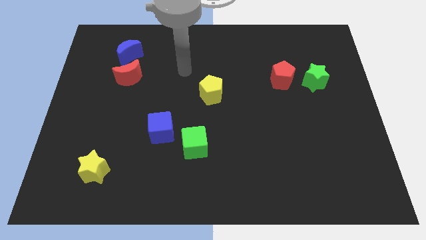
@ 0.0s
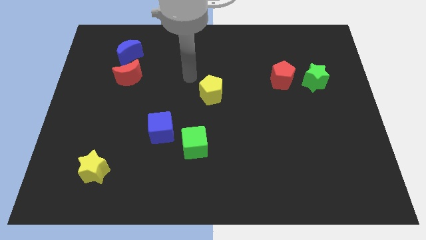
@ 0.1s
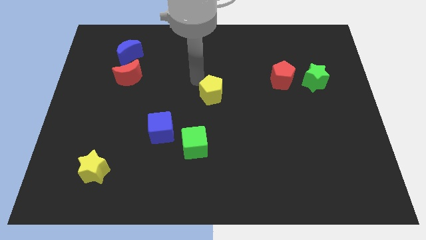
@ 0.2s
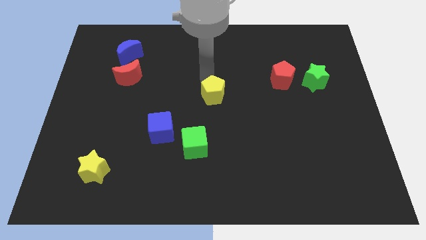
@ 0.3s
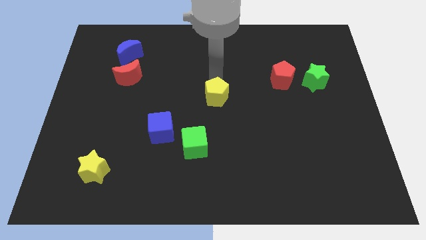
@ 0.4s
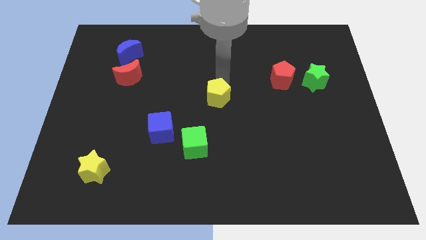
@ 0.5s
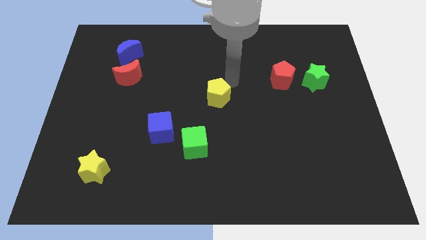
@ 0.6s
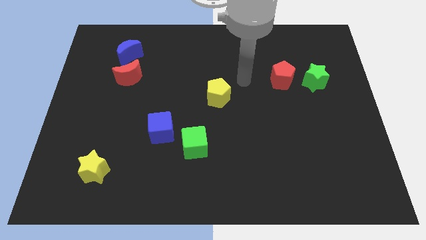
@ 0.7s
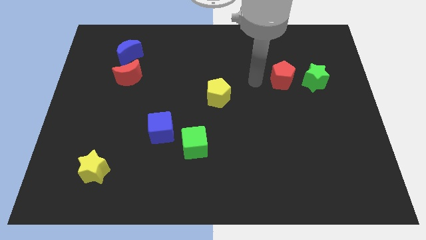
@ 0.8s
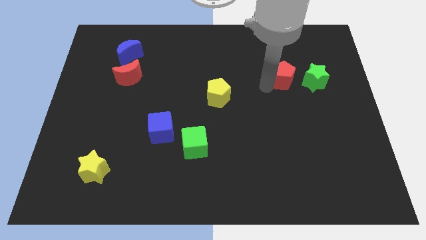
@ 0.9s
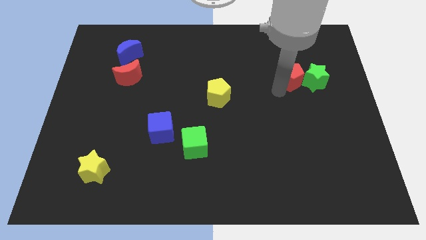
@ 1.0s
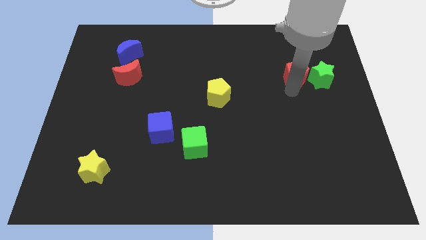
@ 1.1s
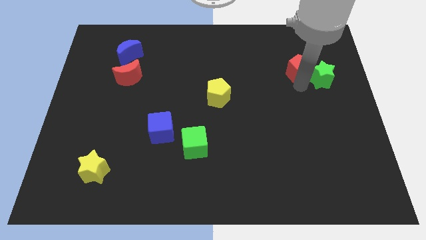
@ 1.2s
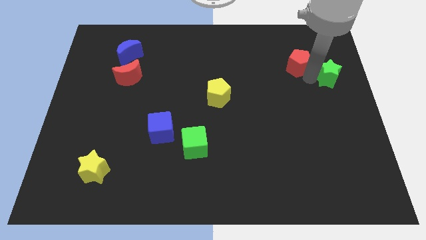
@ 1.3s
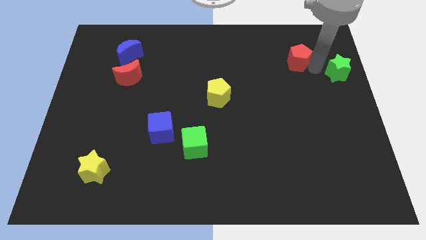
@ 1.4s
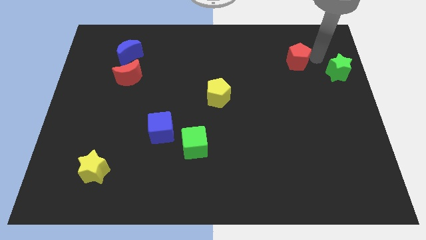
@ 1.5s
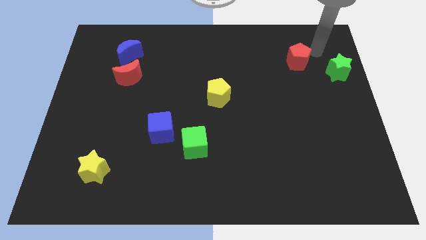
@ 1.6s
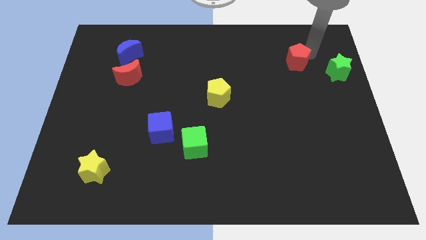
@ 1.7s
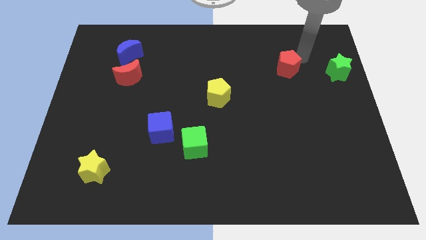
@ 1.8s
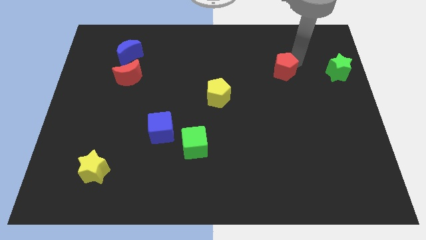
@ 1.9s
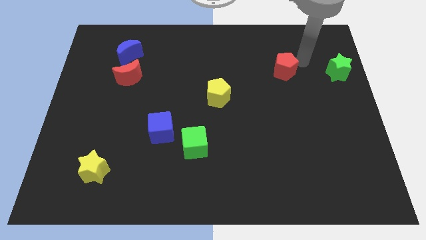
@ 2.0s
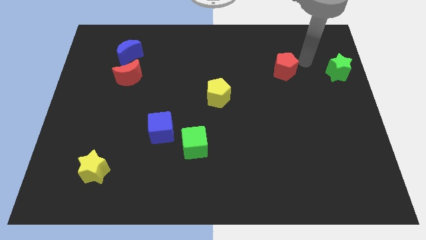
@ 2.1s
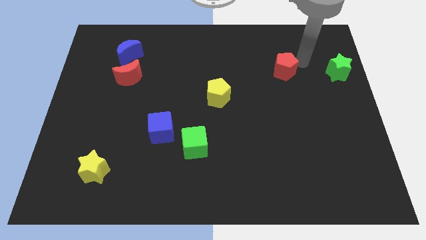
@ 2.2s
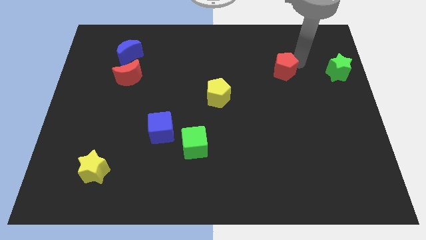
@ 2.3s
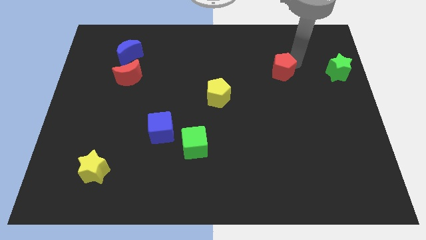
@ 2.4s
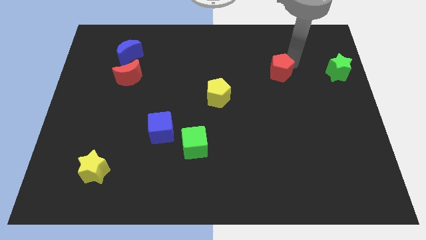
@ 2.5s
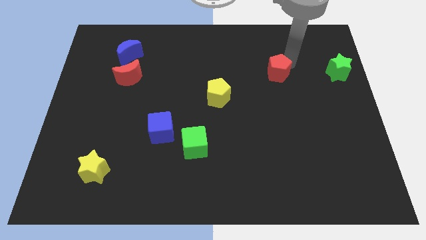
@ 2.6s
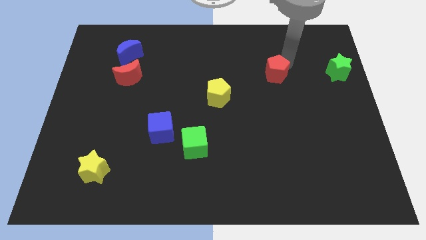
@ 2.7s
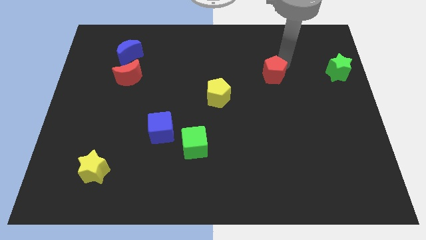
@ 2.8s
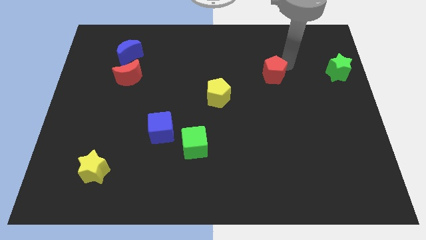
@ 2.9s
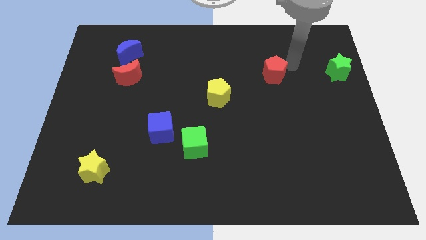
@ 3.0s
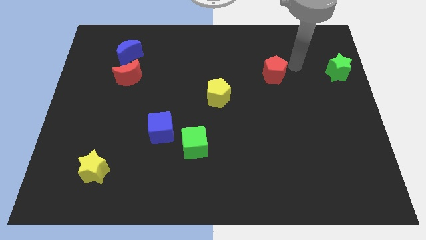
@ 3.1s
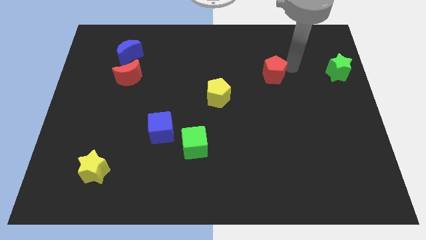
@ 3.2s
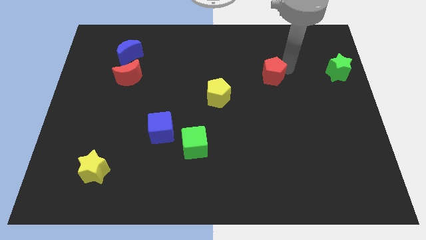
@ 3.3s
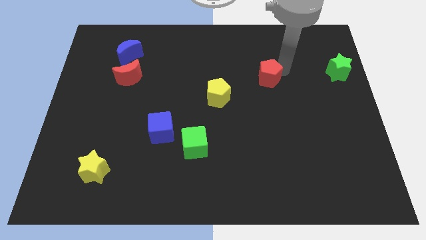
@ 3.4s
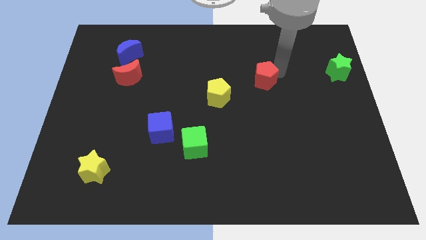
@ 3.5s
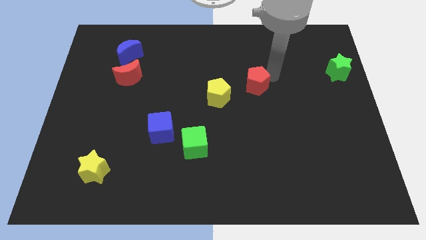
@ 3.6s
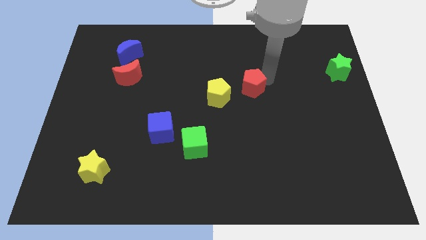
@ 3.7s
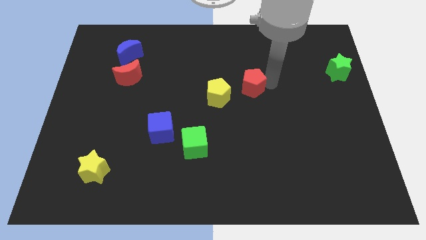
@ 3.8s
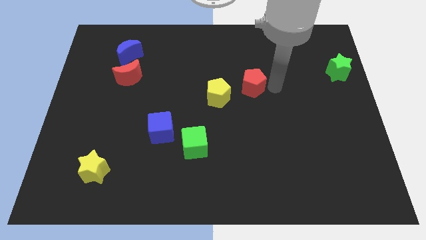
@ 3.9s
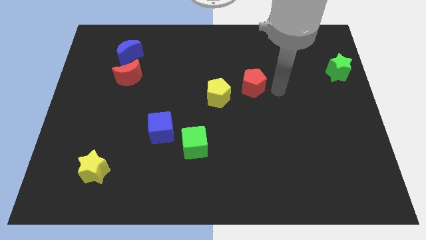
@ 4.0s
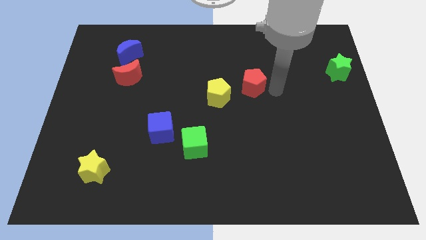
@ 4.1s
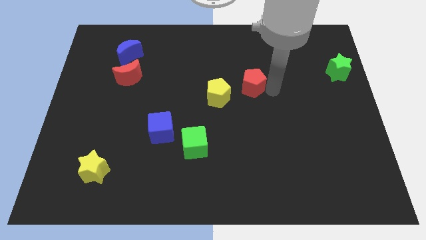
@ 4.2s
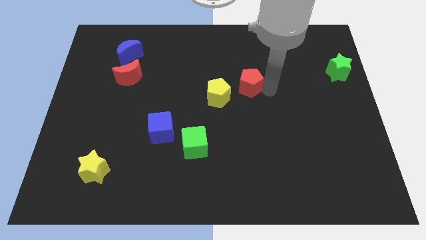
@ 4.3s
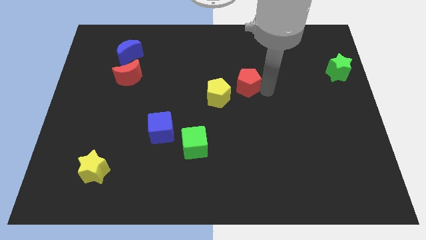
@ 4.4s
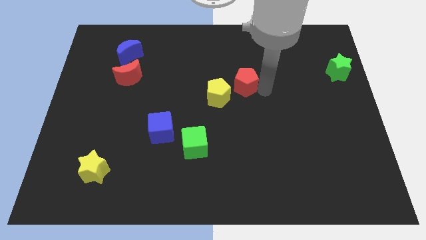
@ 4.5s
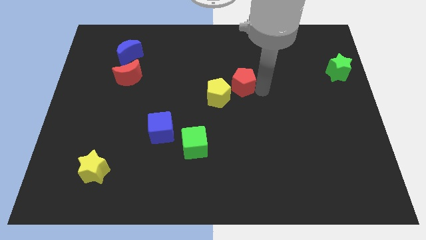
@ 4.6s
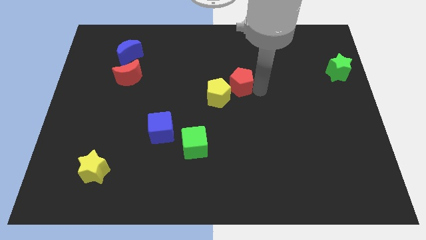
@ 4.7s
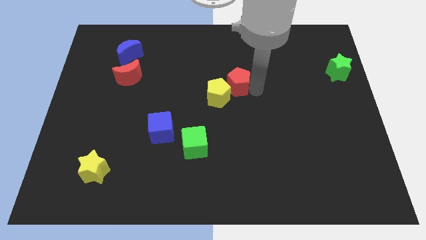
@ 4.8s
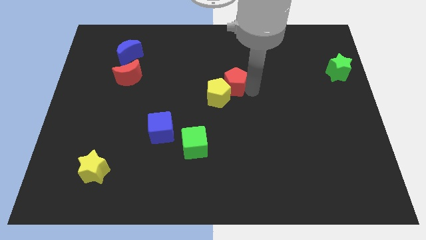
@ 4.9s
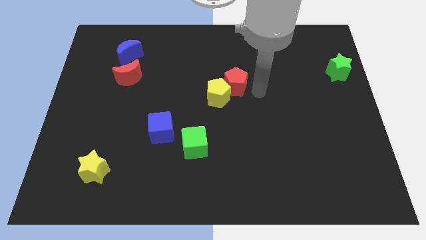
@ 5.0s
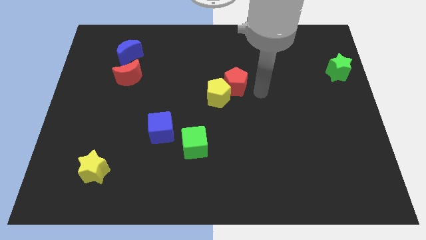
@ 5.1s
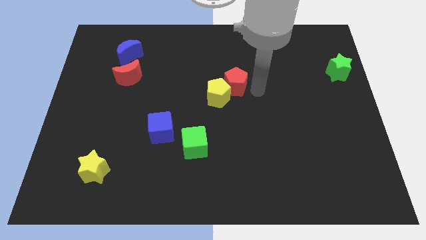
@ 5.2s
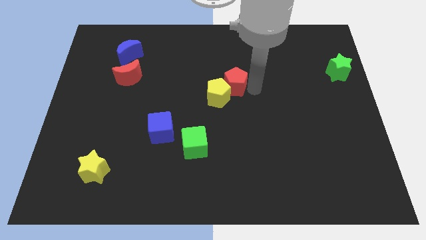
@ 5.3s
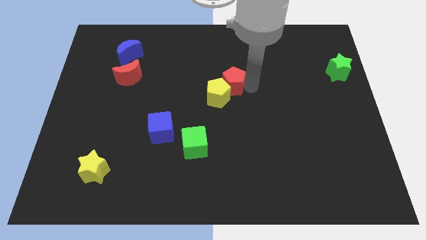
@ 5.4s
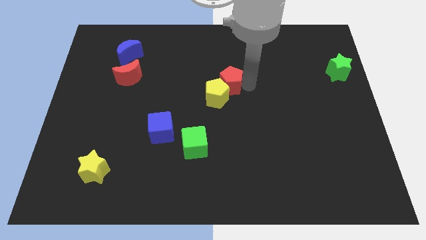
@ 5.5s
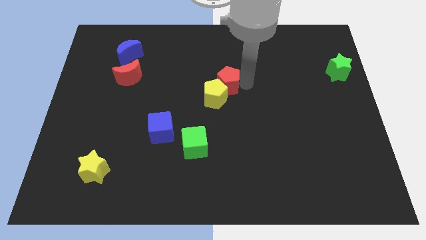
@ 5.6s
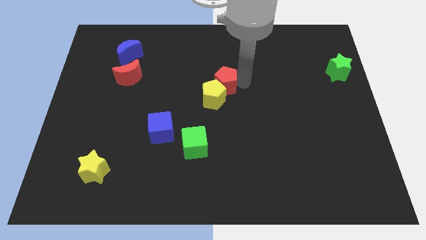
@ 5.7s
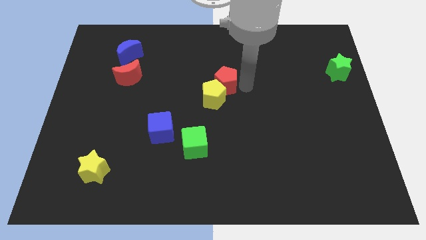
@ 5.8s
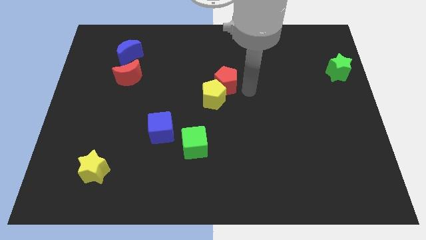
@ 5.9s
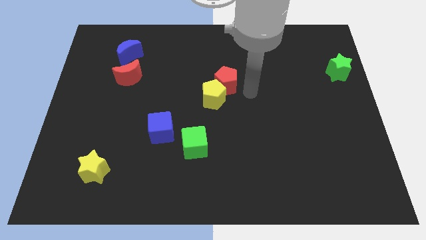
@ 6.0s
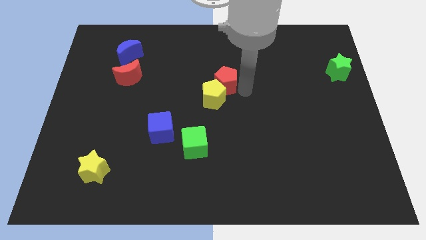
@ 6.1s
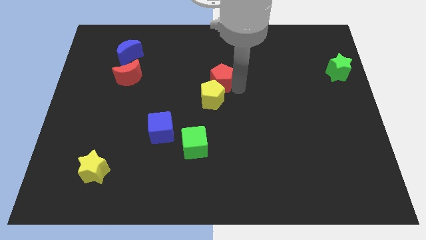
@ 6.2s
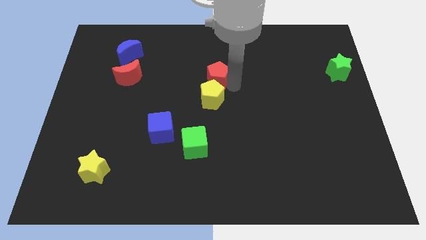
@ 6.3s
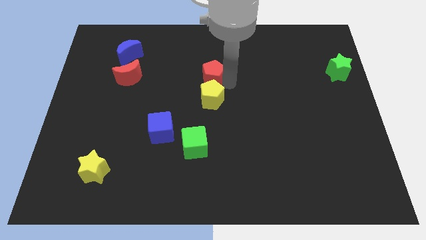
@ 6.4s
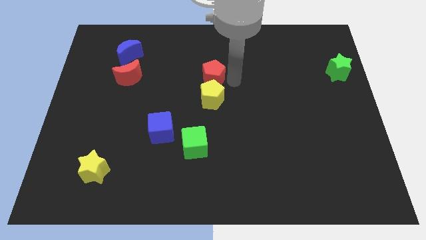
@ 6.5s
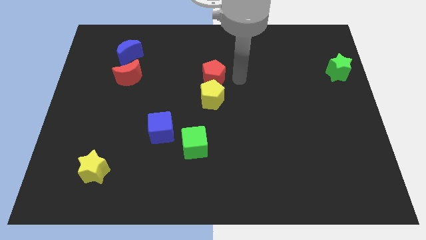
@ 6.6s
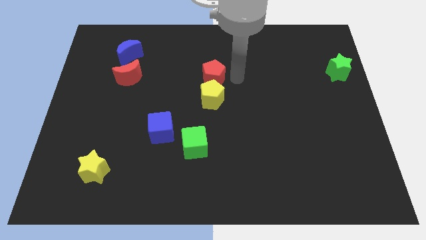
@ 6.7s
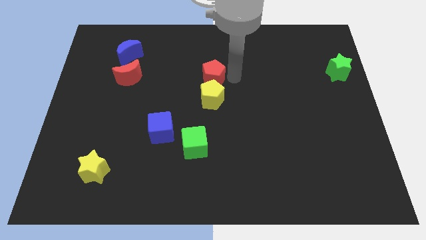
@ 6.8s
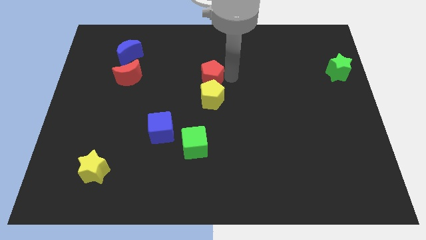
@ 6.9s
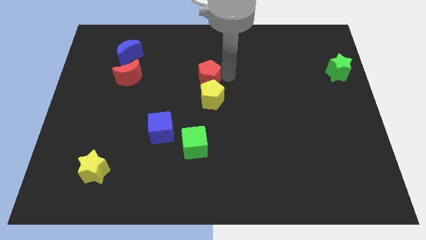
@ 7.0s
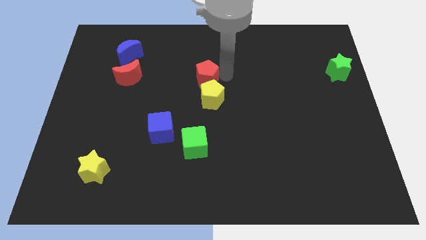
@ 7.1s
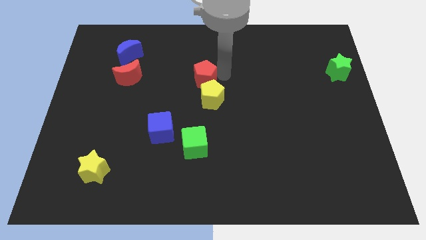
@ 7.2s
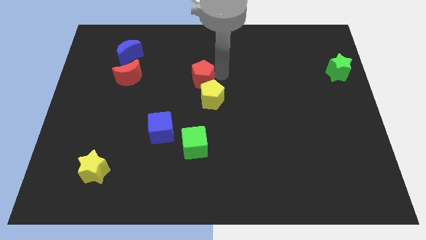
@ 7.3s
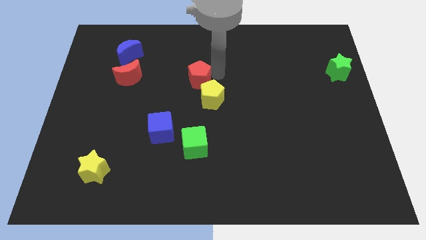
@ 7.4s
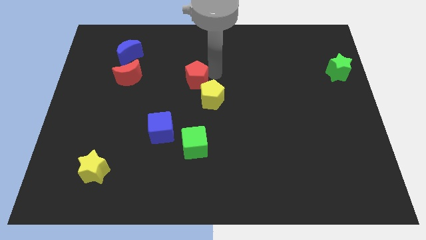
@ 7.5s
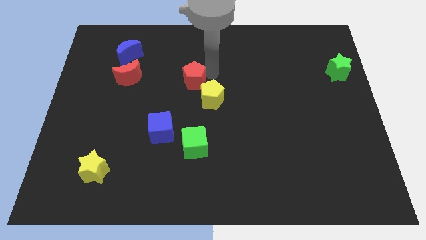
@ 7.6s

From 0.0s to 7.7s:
push the red pentagon just right of the red moon
